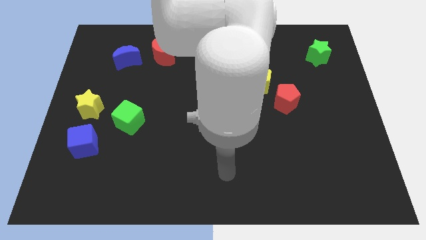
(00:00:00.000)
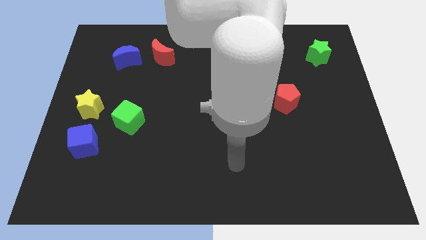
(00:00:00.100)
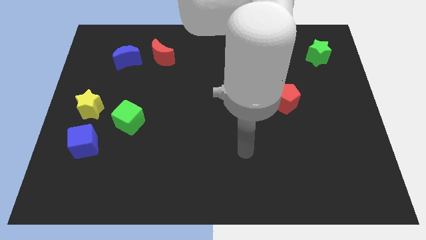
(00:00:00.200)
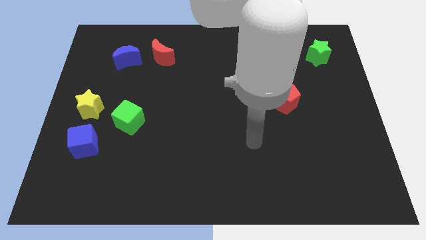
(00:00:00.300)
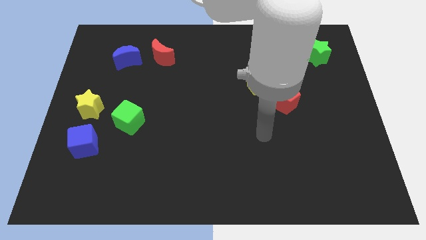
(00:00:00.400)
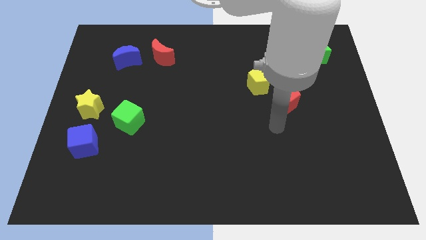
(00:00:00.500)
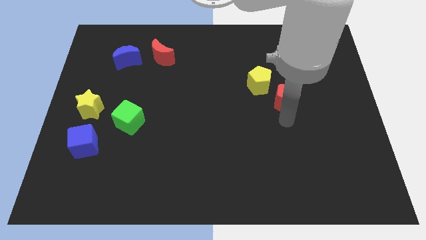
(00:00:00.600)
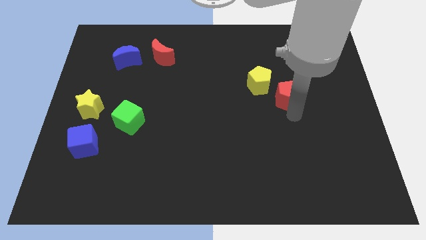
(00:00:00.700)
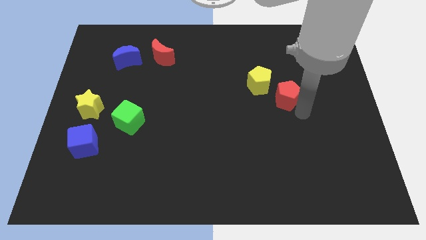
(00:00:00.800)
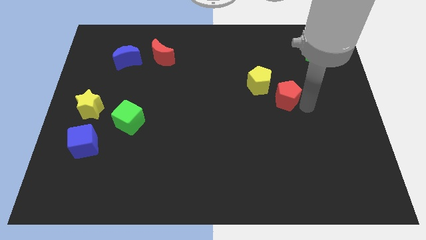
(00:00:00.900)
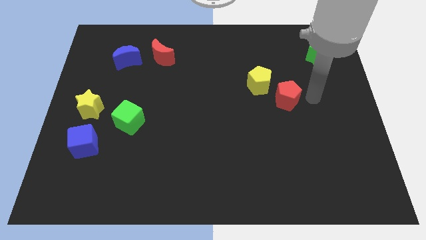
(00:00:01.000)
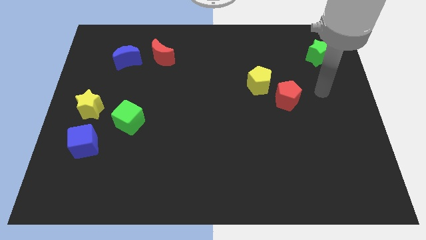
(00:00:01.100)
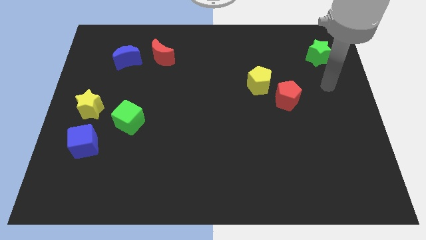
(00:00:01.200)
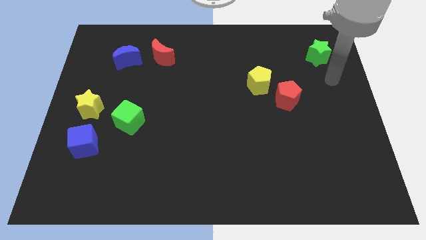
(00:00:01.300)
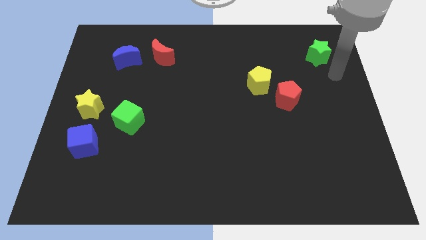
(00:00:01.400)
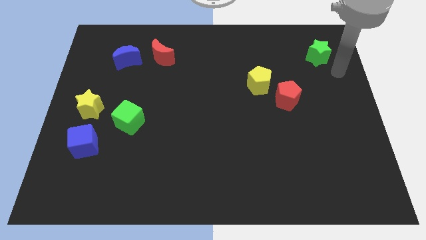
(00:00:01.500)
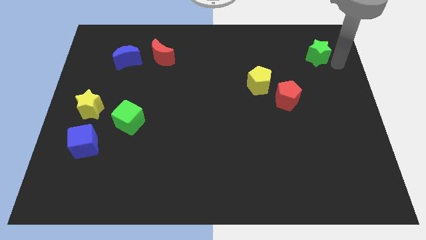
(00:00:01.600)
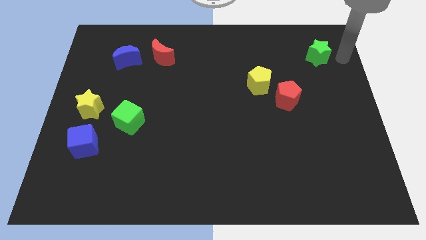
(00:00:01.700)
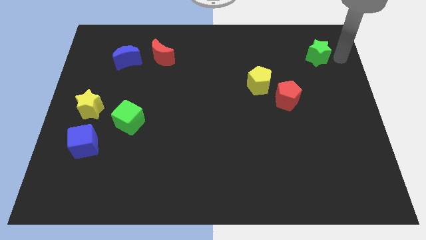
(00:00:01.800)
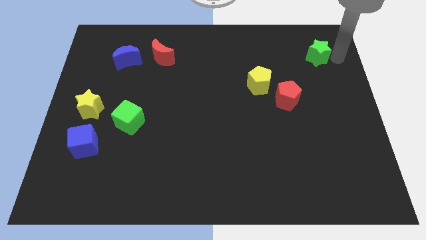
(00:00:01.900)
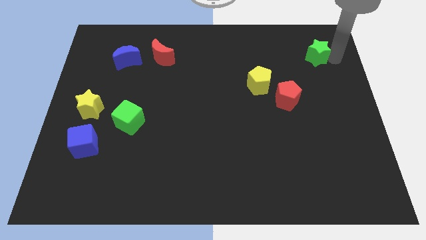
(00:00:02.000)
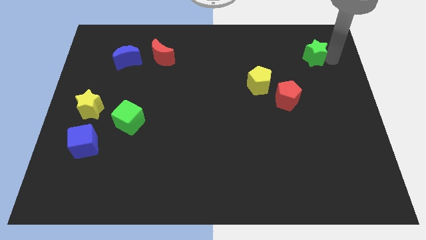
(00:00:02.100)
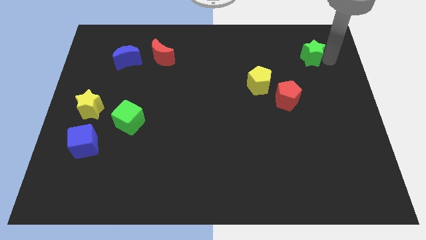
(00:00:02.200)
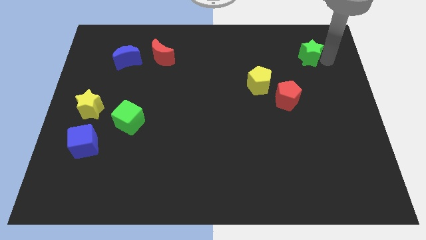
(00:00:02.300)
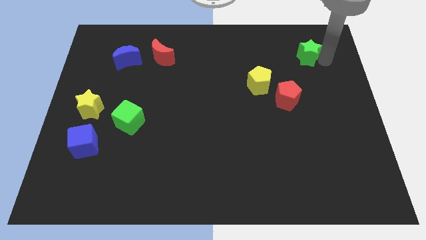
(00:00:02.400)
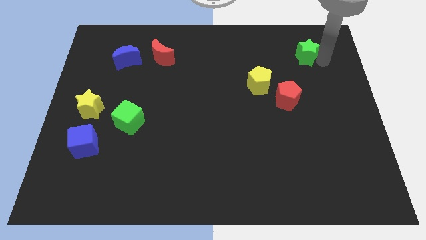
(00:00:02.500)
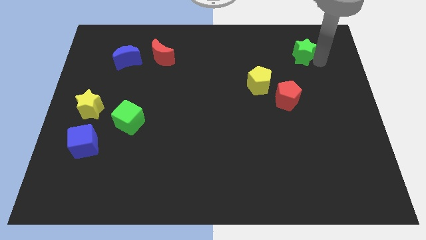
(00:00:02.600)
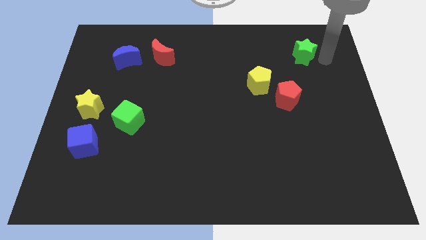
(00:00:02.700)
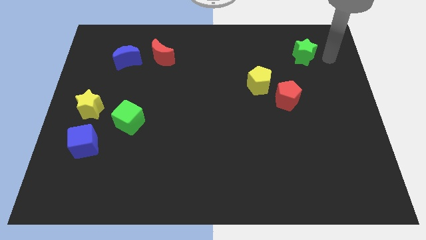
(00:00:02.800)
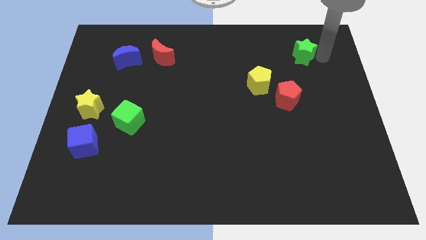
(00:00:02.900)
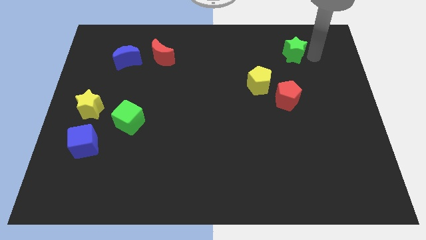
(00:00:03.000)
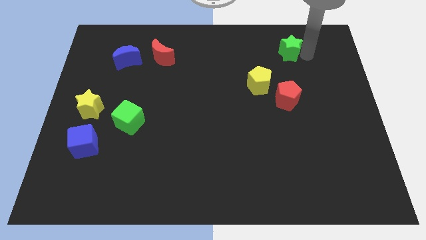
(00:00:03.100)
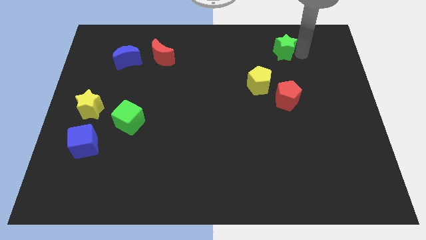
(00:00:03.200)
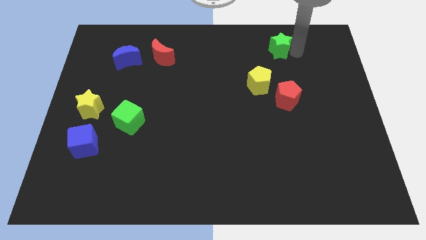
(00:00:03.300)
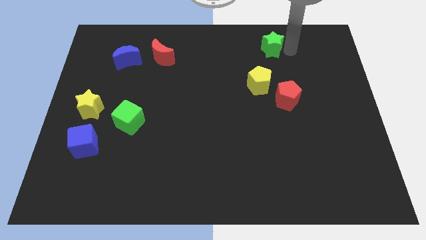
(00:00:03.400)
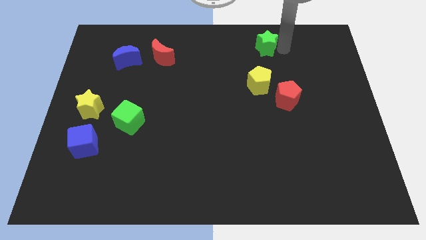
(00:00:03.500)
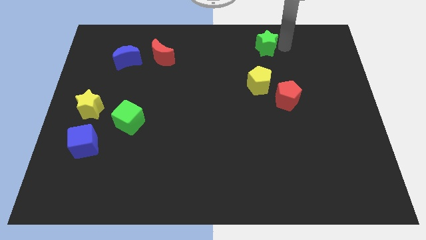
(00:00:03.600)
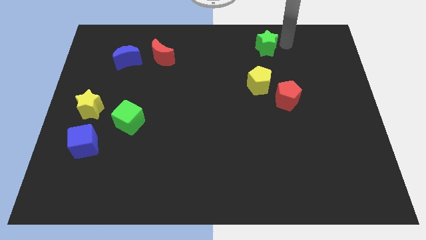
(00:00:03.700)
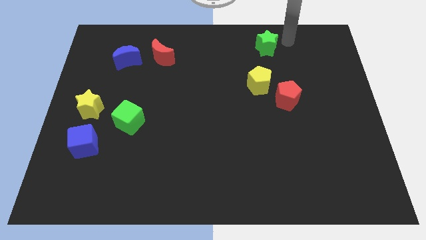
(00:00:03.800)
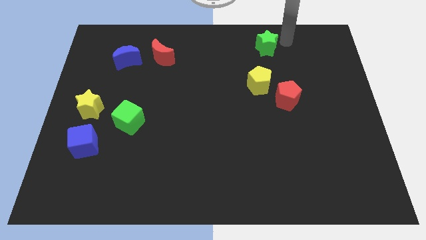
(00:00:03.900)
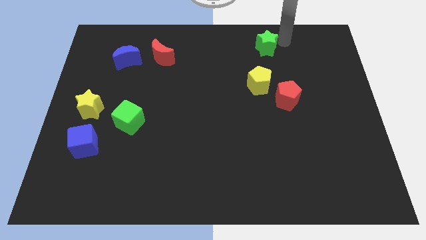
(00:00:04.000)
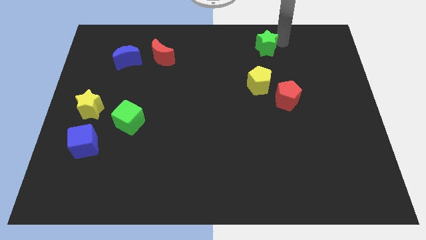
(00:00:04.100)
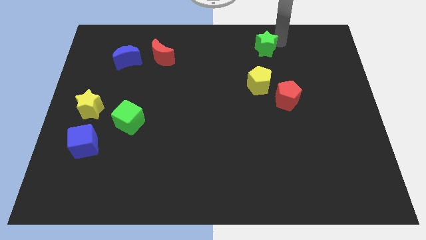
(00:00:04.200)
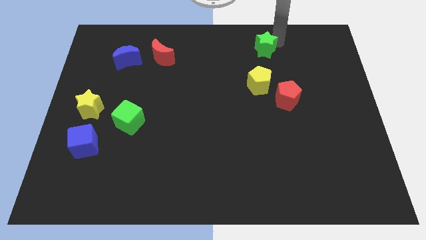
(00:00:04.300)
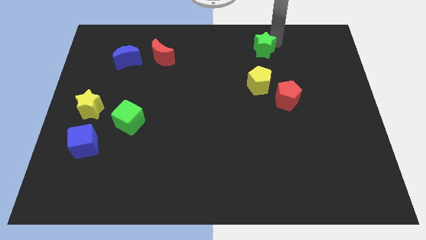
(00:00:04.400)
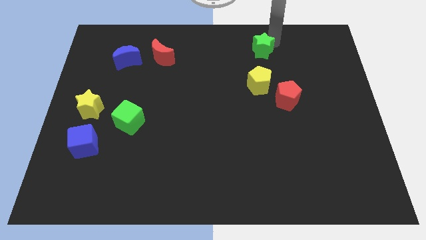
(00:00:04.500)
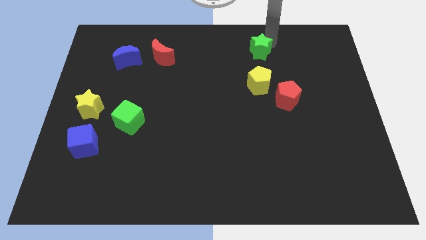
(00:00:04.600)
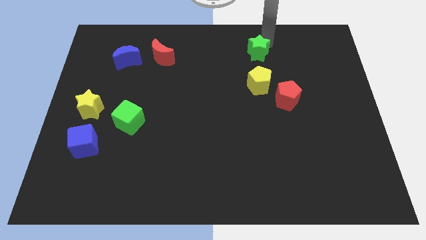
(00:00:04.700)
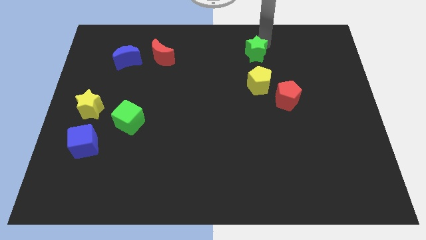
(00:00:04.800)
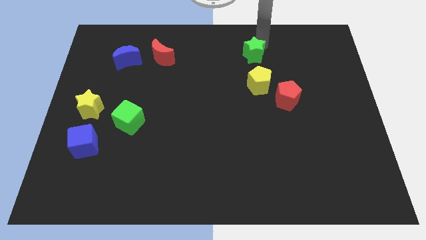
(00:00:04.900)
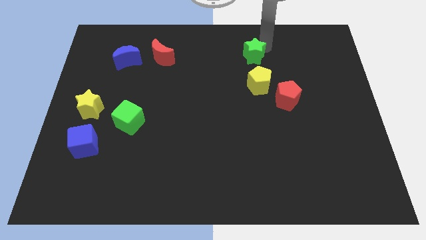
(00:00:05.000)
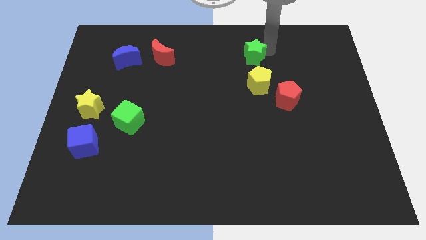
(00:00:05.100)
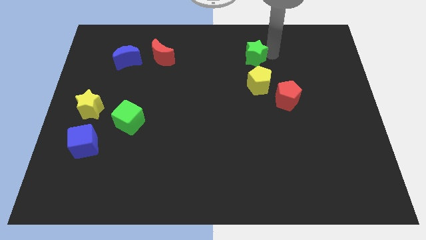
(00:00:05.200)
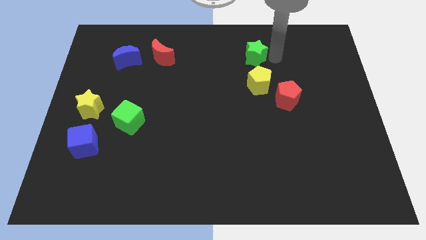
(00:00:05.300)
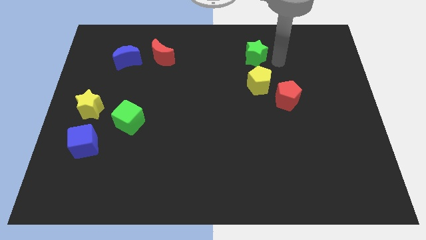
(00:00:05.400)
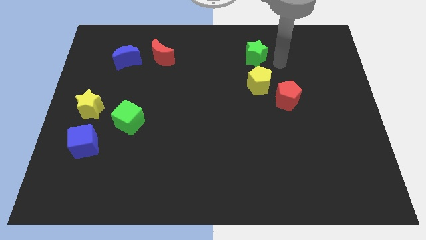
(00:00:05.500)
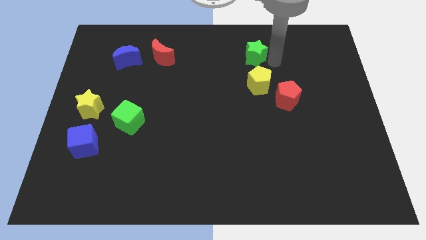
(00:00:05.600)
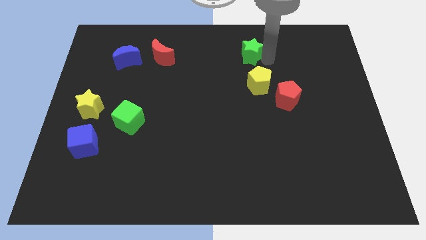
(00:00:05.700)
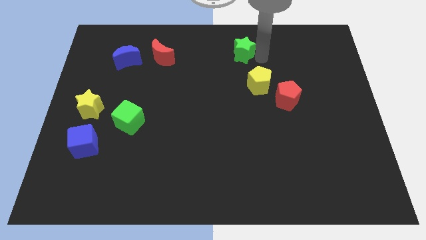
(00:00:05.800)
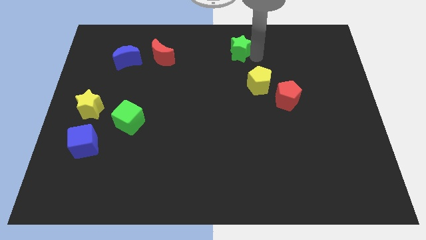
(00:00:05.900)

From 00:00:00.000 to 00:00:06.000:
push the green star left

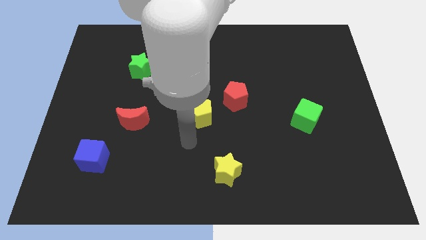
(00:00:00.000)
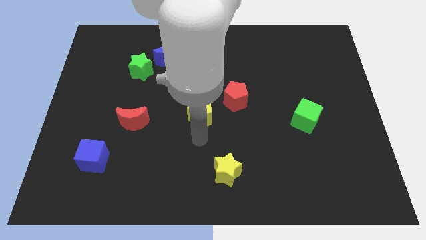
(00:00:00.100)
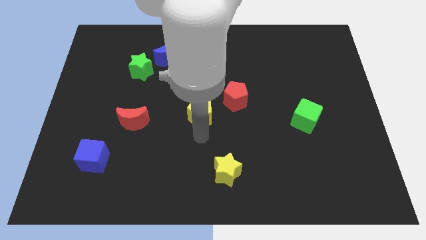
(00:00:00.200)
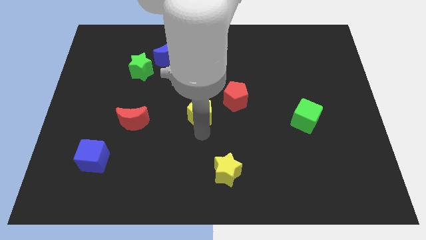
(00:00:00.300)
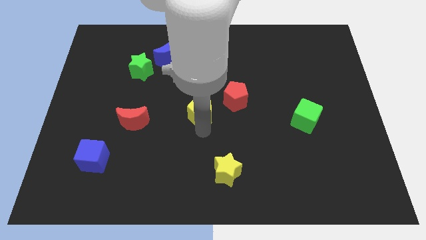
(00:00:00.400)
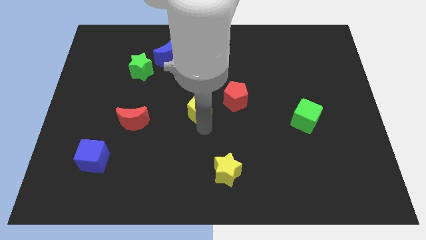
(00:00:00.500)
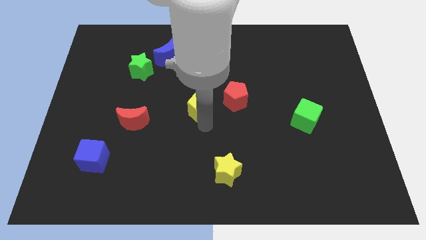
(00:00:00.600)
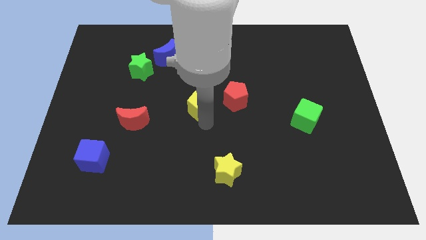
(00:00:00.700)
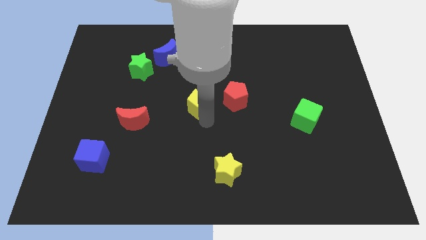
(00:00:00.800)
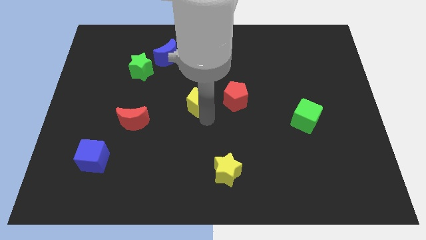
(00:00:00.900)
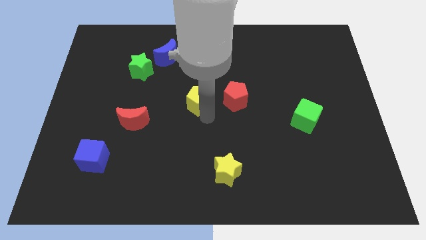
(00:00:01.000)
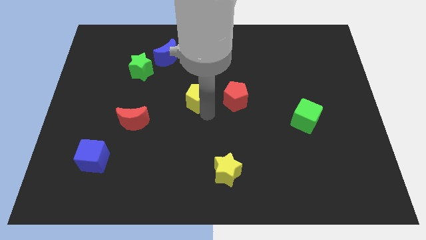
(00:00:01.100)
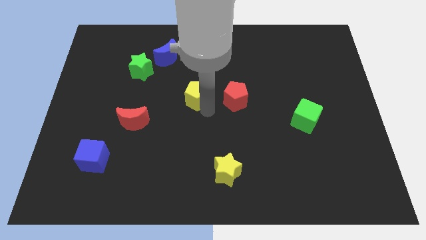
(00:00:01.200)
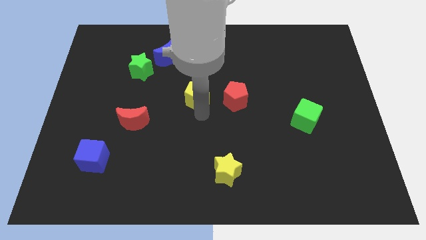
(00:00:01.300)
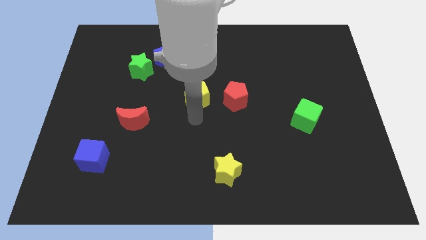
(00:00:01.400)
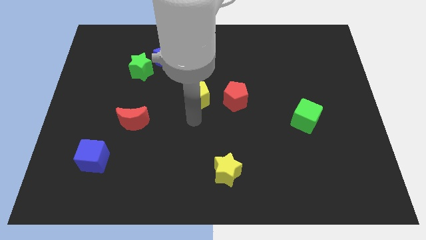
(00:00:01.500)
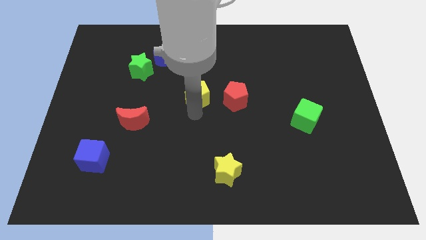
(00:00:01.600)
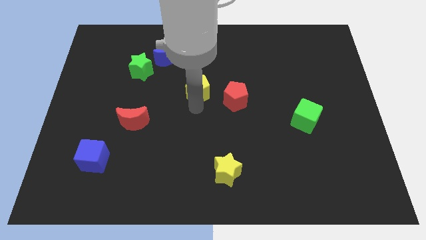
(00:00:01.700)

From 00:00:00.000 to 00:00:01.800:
slightly push the yellow pentagon upwards

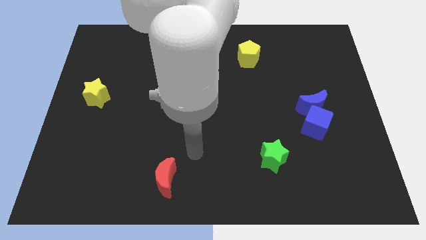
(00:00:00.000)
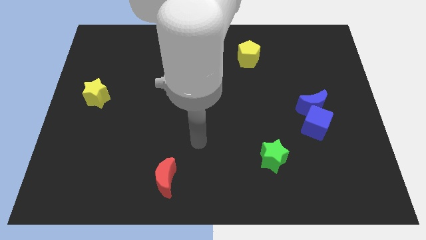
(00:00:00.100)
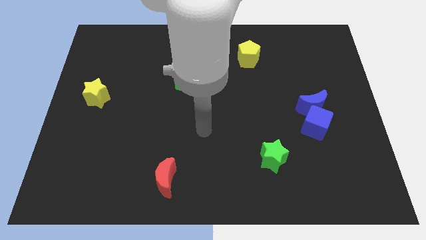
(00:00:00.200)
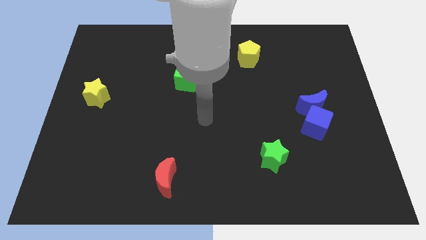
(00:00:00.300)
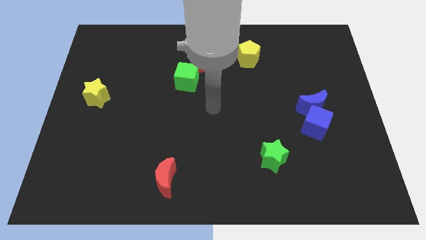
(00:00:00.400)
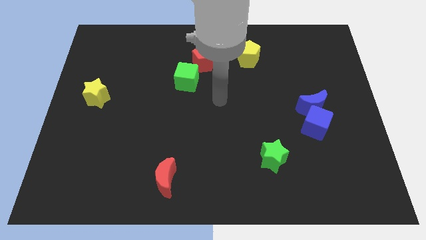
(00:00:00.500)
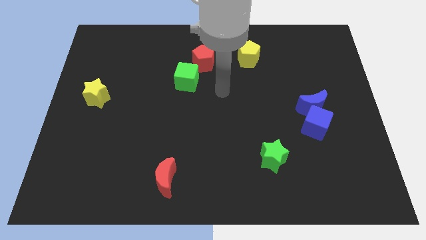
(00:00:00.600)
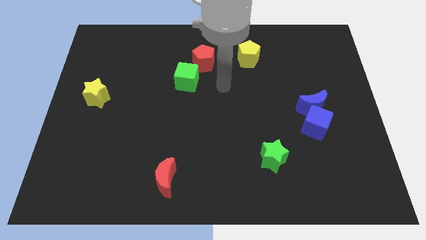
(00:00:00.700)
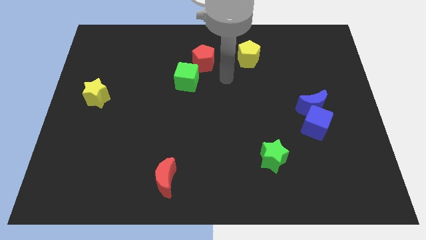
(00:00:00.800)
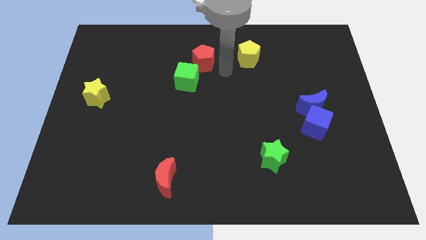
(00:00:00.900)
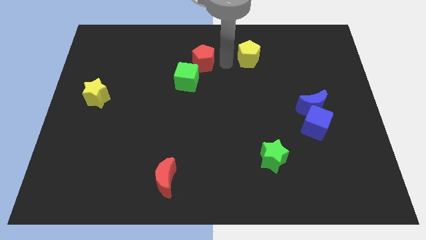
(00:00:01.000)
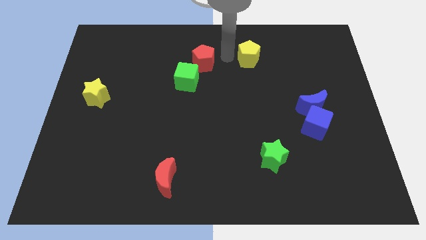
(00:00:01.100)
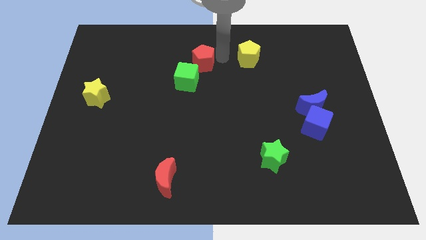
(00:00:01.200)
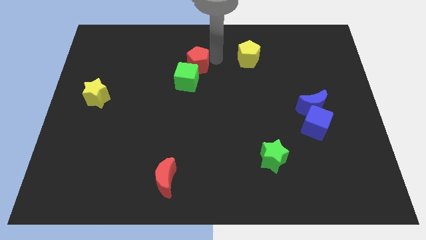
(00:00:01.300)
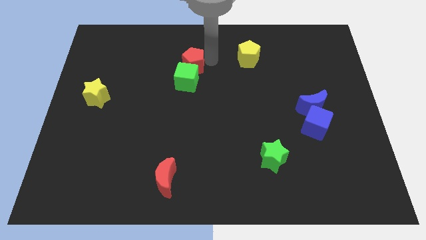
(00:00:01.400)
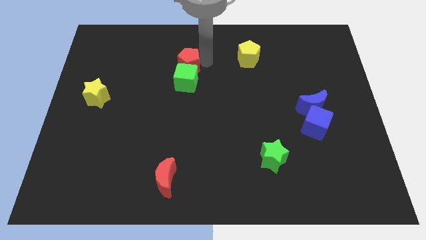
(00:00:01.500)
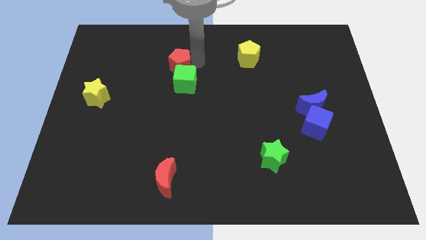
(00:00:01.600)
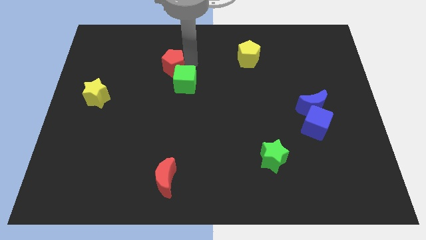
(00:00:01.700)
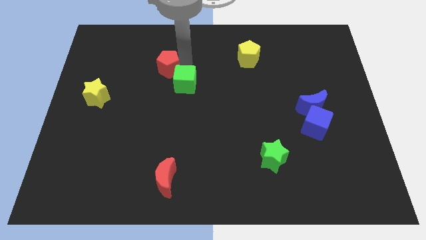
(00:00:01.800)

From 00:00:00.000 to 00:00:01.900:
slide the red pentagon slightly downwards and left
